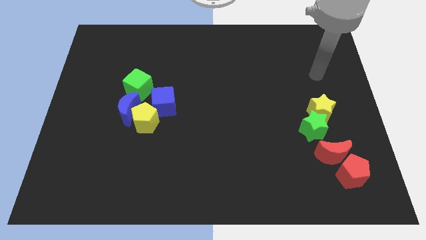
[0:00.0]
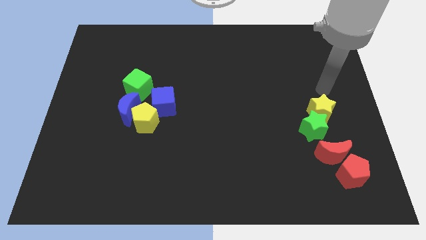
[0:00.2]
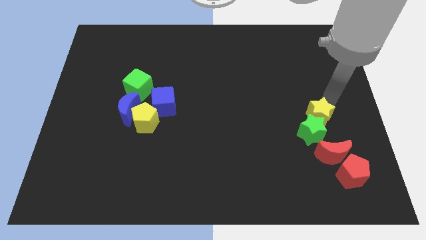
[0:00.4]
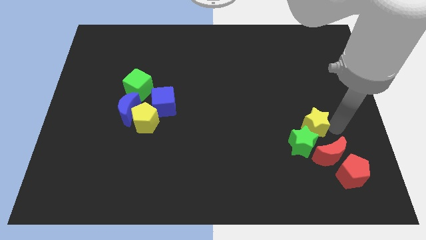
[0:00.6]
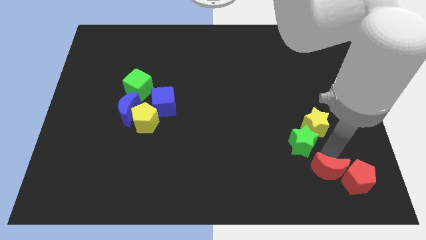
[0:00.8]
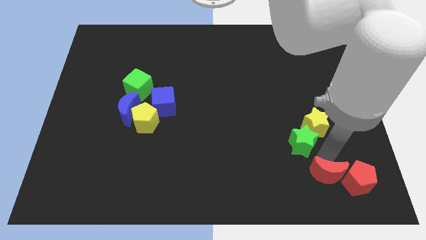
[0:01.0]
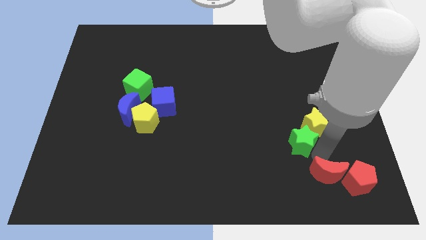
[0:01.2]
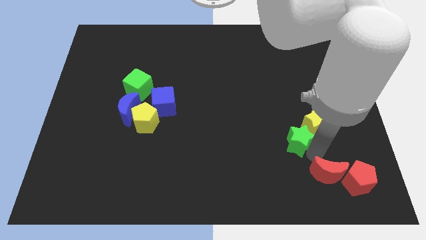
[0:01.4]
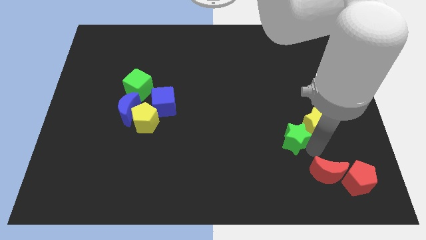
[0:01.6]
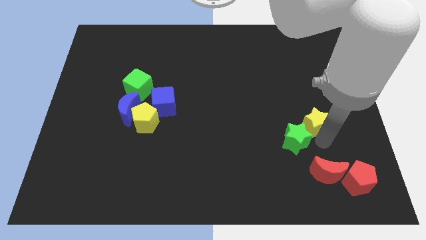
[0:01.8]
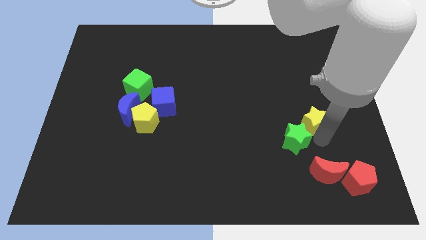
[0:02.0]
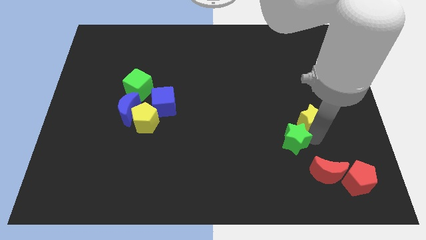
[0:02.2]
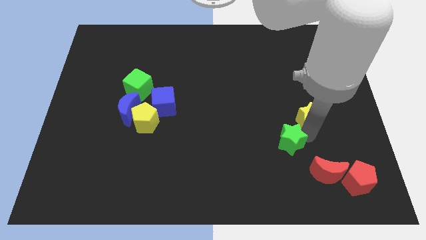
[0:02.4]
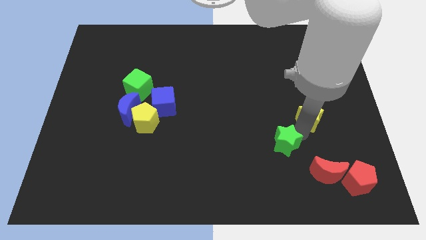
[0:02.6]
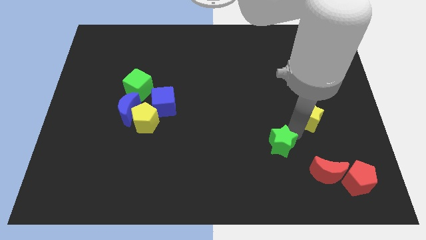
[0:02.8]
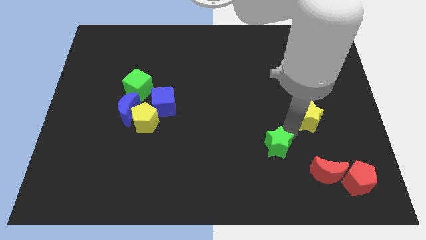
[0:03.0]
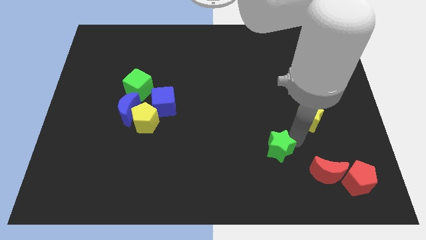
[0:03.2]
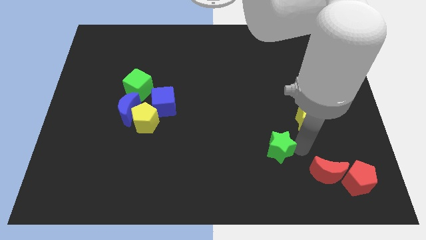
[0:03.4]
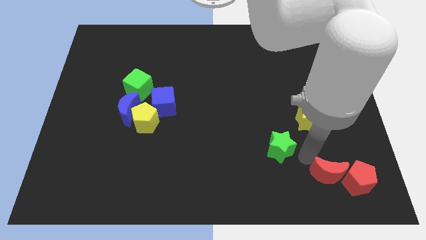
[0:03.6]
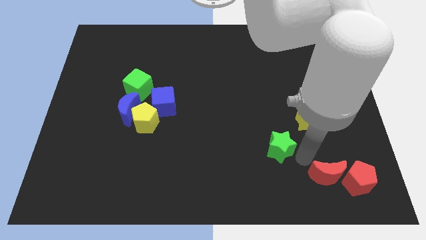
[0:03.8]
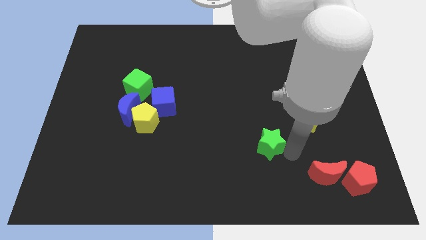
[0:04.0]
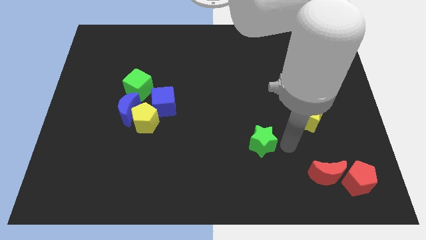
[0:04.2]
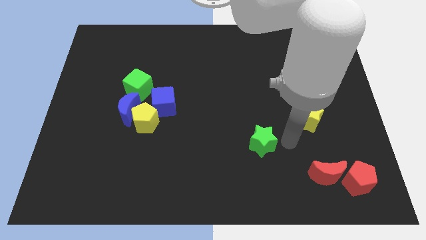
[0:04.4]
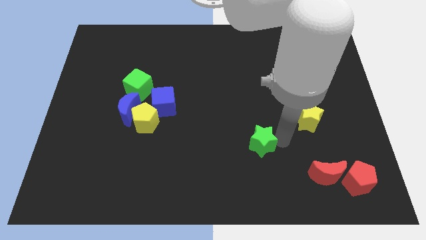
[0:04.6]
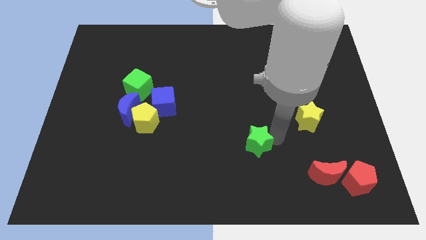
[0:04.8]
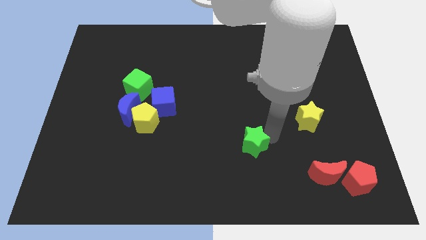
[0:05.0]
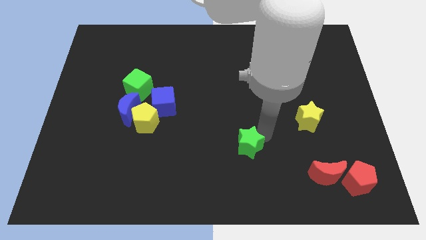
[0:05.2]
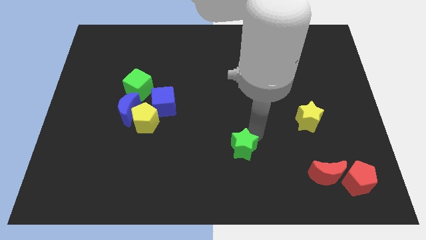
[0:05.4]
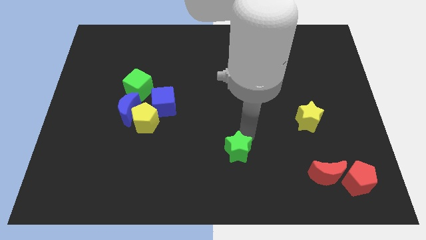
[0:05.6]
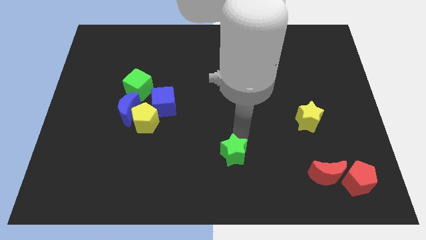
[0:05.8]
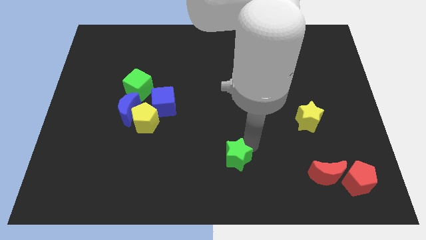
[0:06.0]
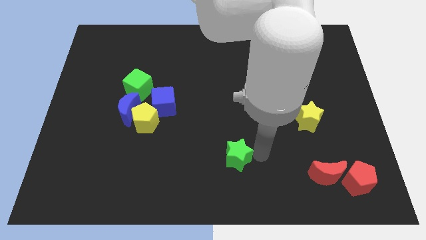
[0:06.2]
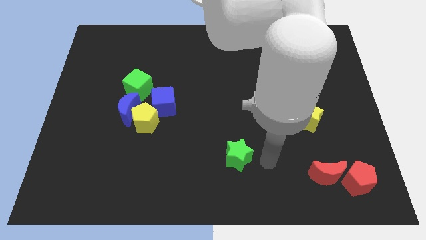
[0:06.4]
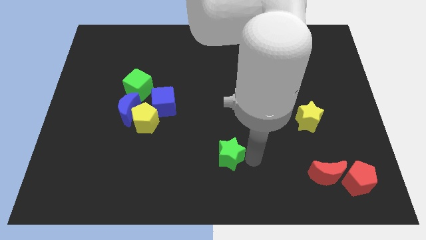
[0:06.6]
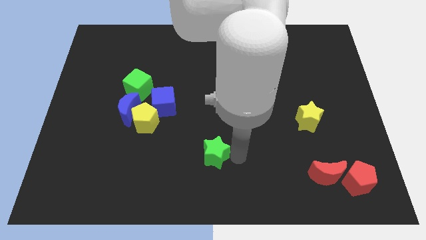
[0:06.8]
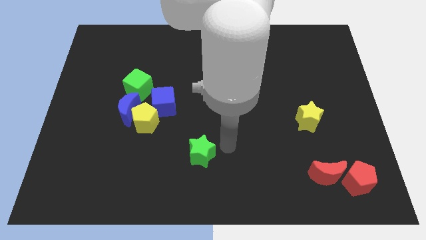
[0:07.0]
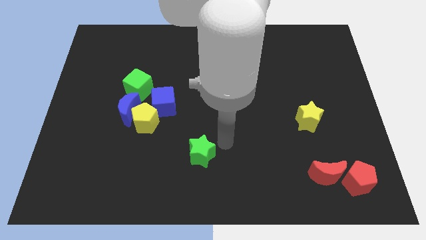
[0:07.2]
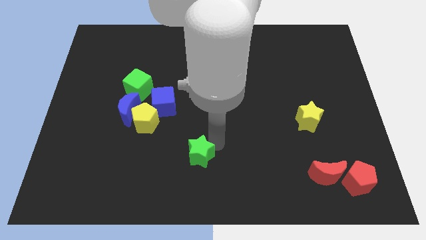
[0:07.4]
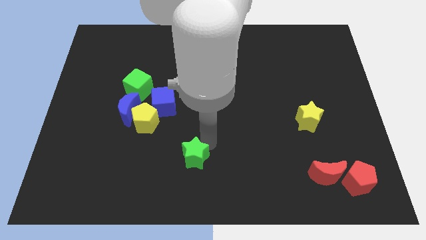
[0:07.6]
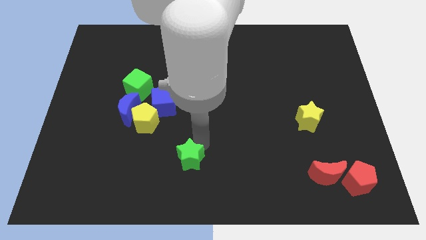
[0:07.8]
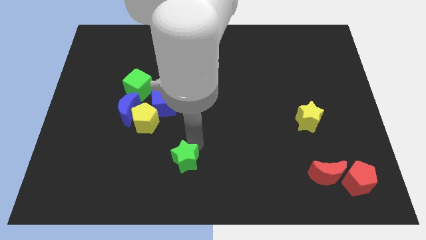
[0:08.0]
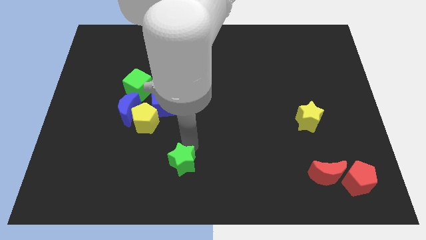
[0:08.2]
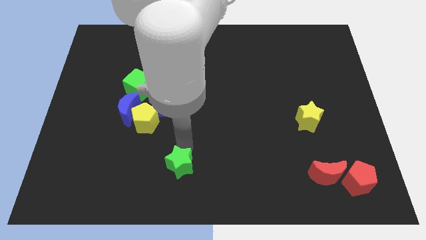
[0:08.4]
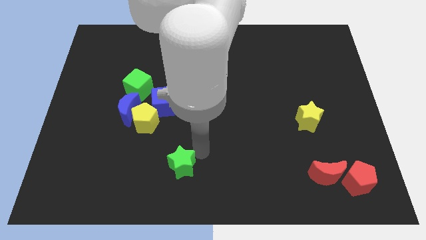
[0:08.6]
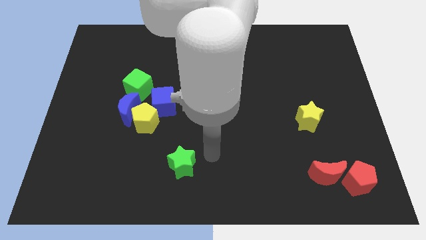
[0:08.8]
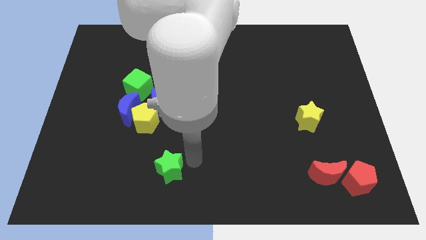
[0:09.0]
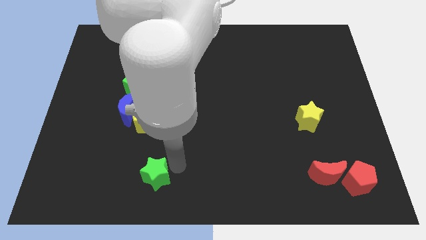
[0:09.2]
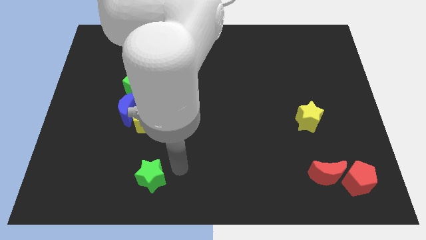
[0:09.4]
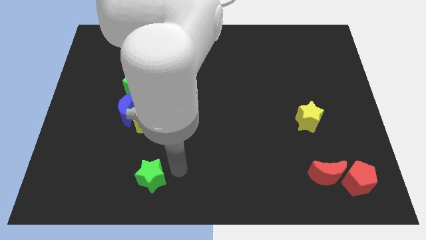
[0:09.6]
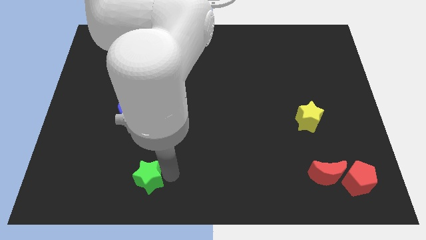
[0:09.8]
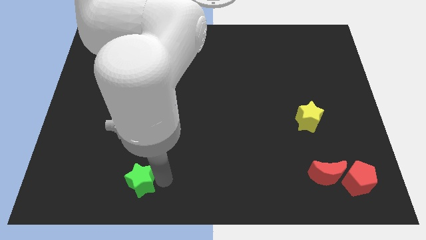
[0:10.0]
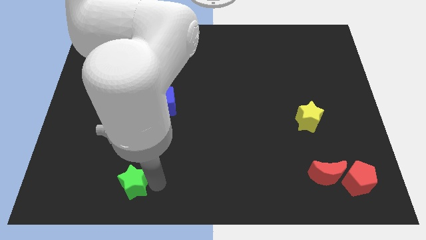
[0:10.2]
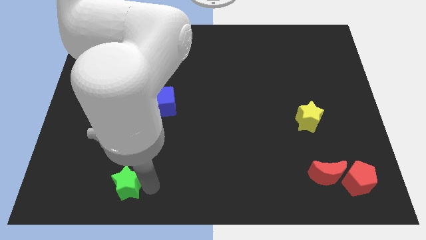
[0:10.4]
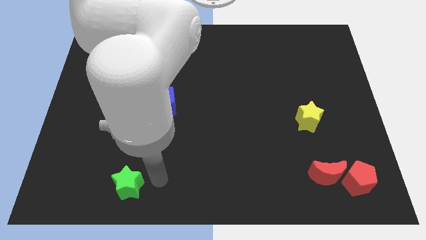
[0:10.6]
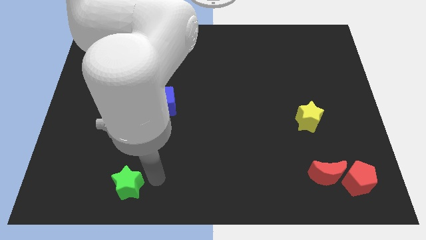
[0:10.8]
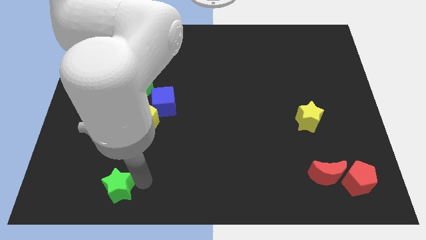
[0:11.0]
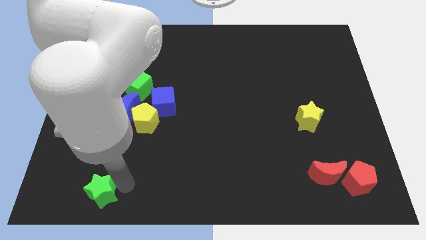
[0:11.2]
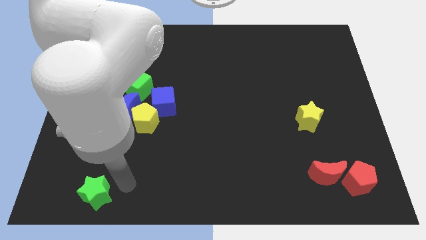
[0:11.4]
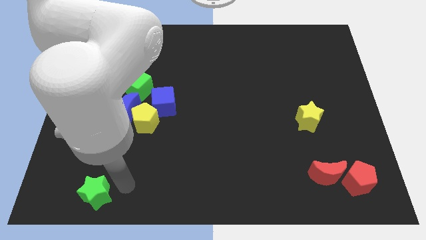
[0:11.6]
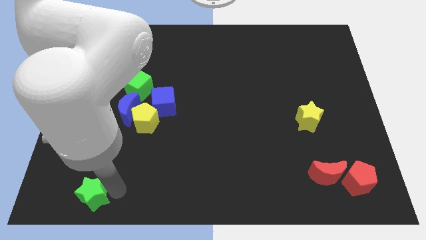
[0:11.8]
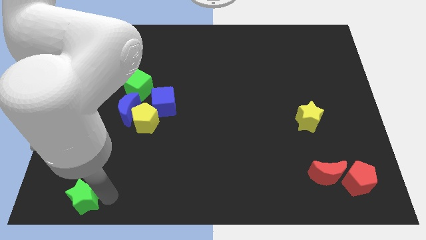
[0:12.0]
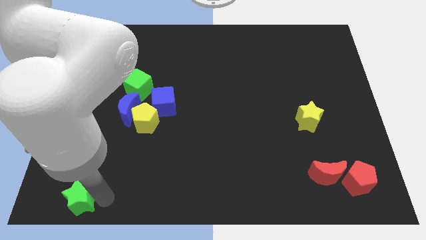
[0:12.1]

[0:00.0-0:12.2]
push the green star to the lower left corner
